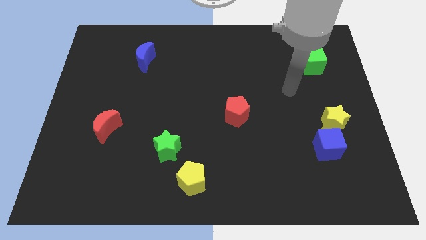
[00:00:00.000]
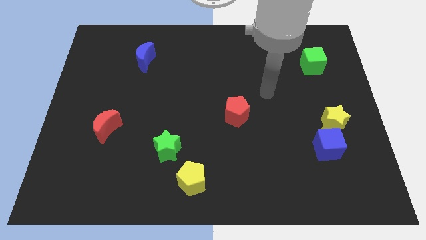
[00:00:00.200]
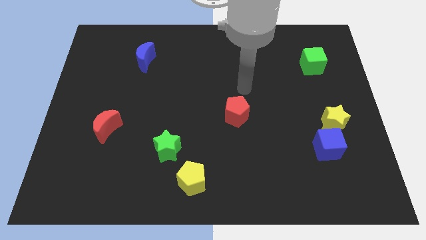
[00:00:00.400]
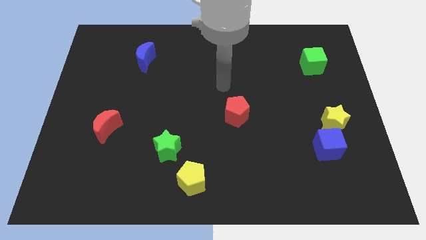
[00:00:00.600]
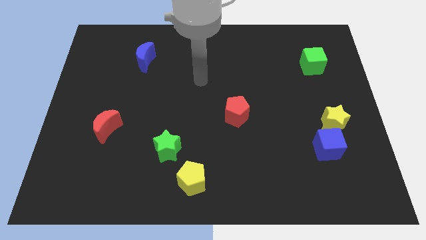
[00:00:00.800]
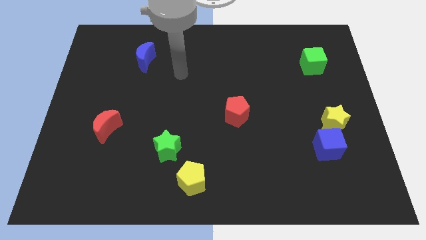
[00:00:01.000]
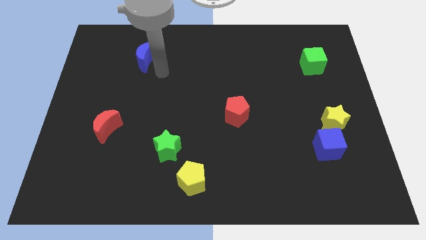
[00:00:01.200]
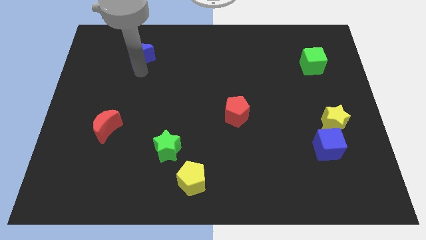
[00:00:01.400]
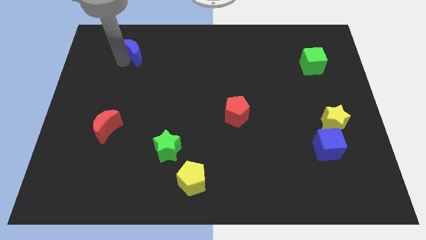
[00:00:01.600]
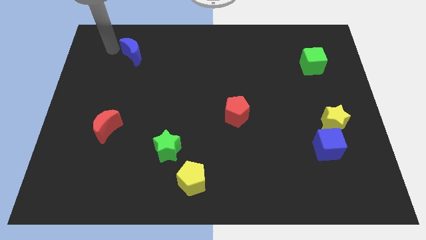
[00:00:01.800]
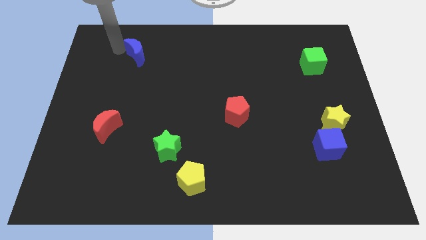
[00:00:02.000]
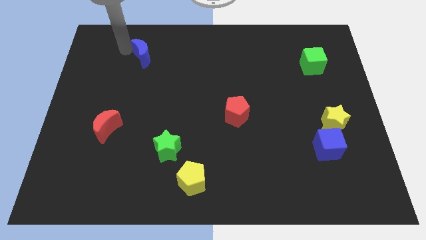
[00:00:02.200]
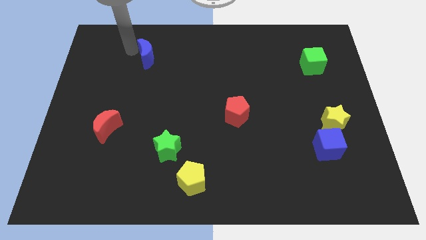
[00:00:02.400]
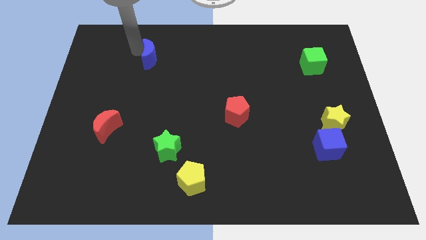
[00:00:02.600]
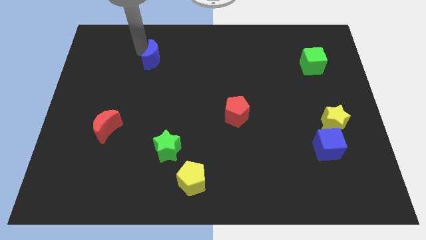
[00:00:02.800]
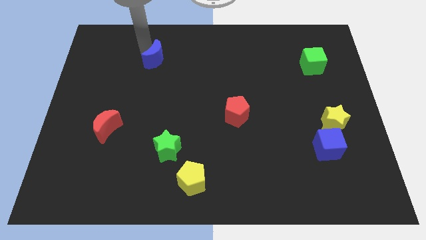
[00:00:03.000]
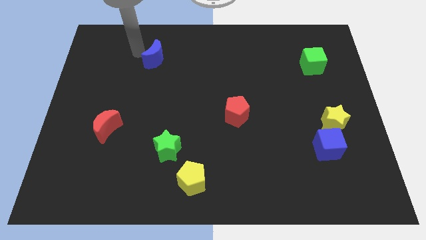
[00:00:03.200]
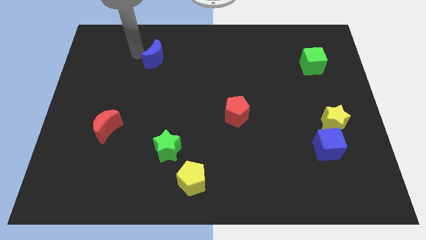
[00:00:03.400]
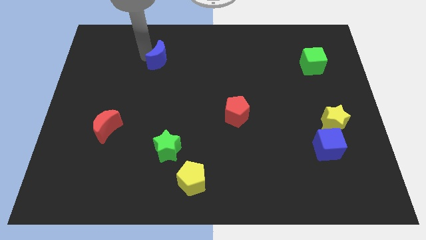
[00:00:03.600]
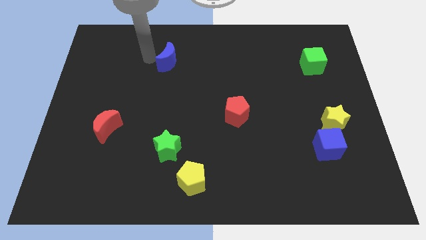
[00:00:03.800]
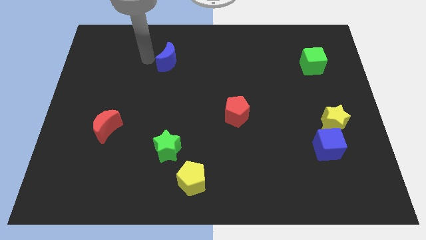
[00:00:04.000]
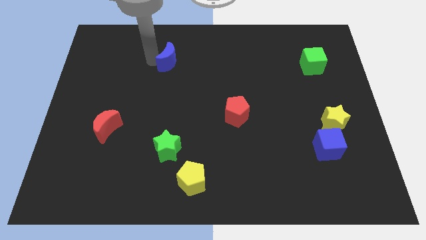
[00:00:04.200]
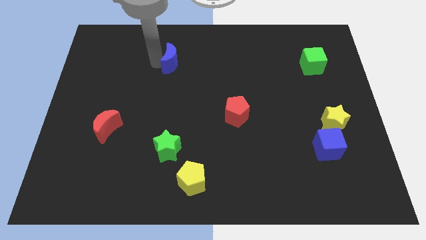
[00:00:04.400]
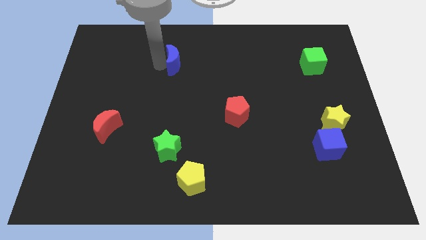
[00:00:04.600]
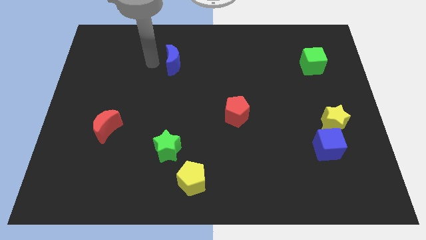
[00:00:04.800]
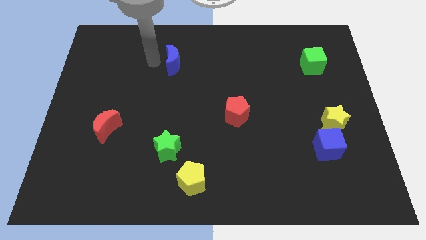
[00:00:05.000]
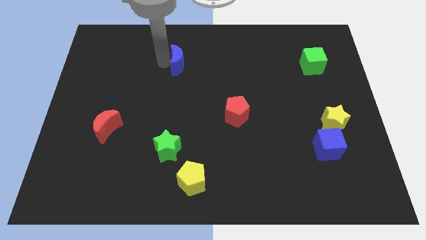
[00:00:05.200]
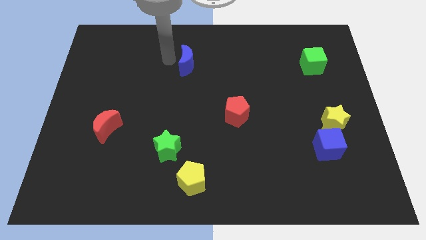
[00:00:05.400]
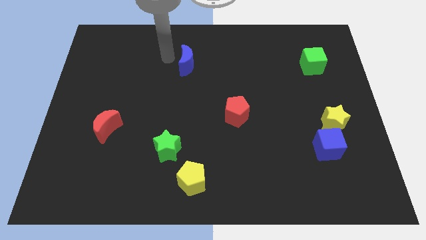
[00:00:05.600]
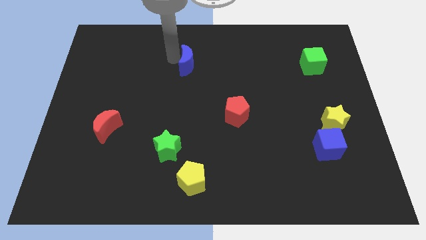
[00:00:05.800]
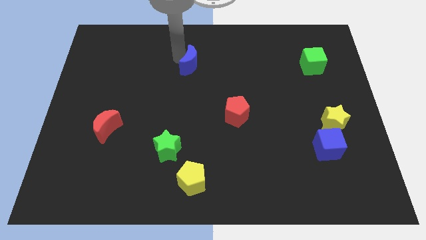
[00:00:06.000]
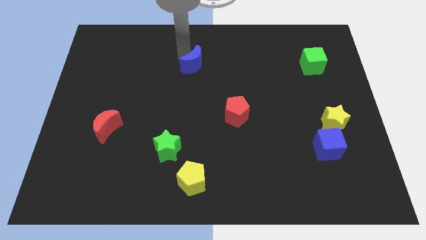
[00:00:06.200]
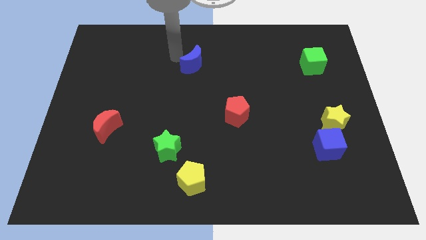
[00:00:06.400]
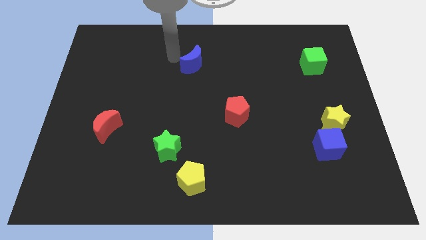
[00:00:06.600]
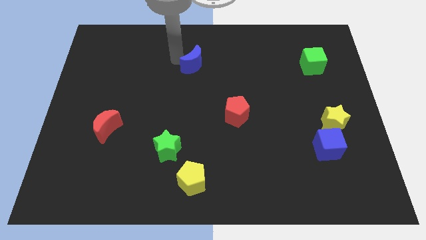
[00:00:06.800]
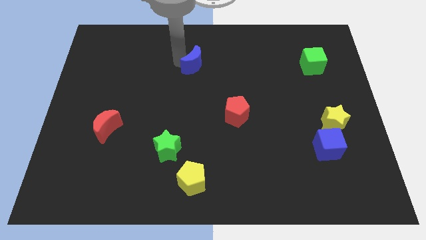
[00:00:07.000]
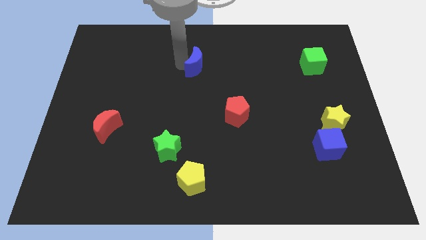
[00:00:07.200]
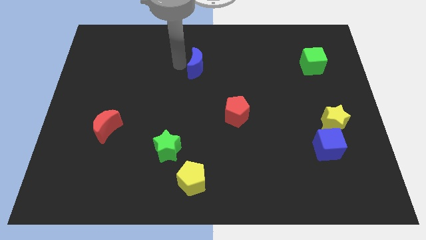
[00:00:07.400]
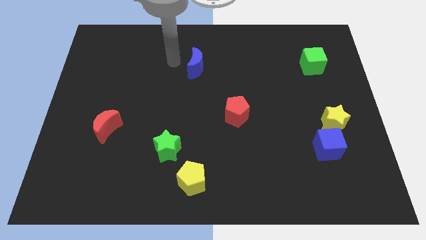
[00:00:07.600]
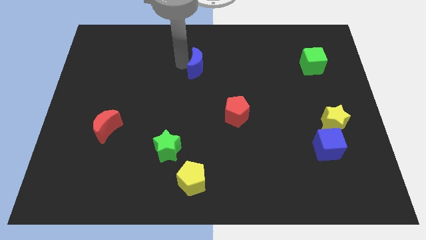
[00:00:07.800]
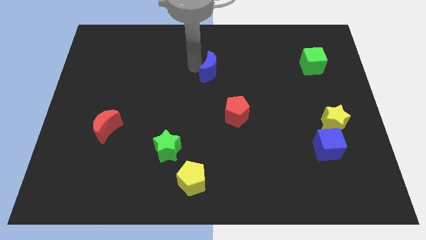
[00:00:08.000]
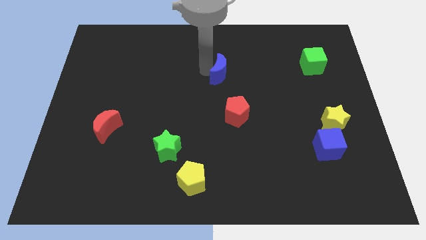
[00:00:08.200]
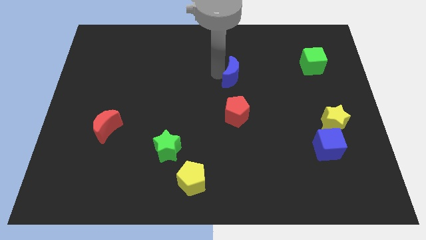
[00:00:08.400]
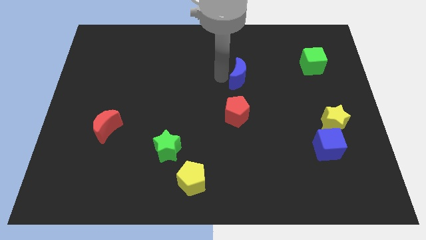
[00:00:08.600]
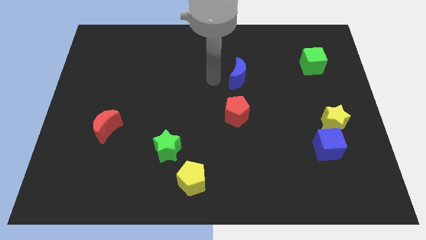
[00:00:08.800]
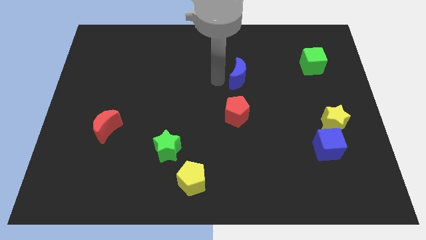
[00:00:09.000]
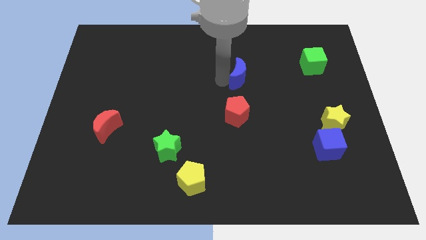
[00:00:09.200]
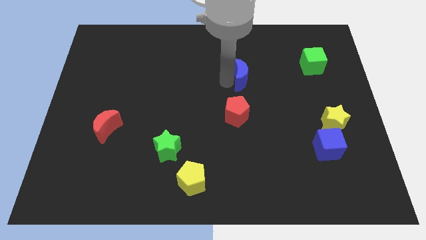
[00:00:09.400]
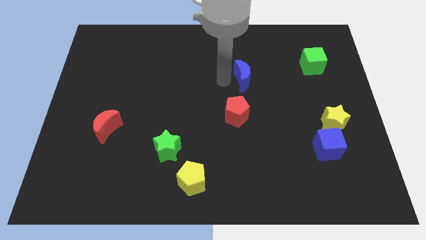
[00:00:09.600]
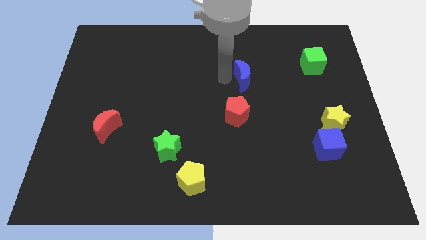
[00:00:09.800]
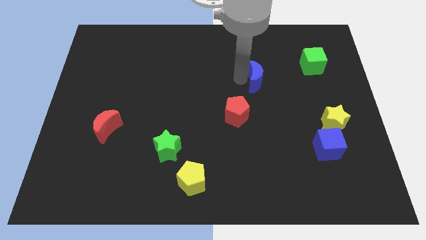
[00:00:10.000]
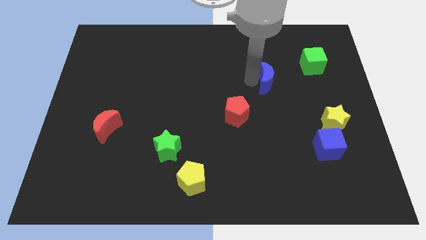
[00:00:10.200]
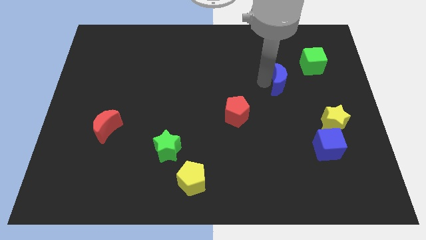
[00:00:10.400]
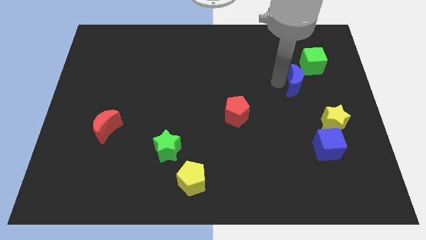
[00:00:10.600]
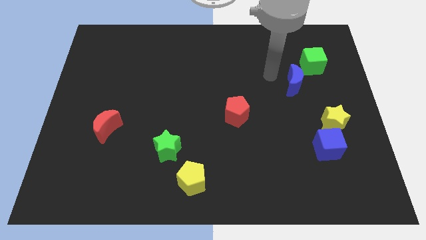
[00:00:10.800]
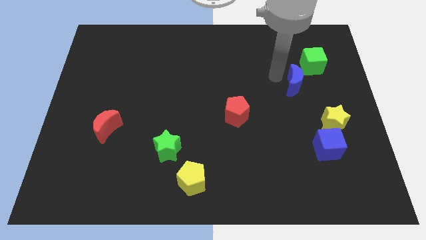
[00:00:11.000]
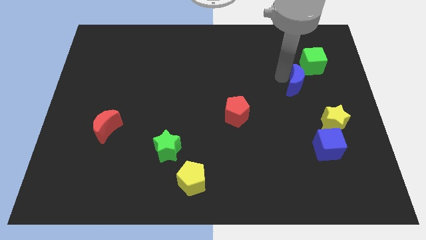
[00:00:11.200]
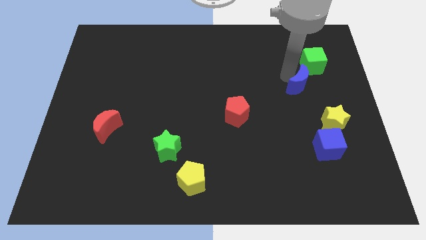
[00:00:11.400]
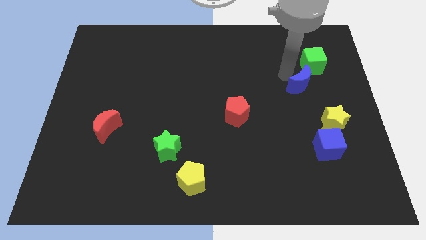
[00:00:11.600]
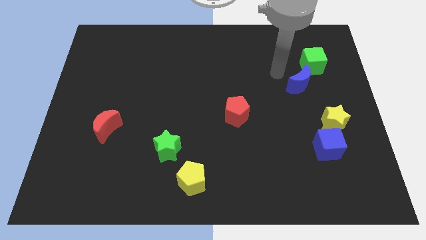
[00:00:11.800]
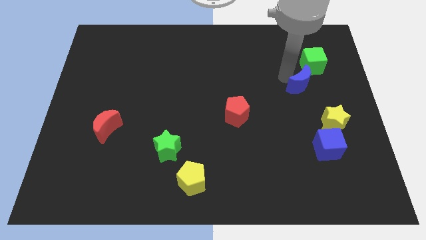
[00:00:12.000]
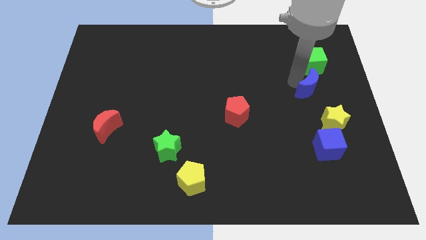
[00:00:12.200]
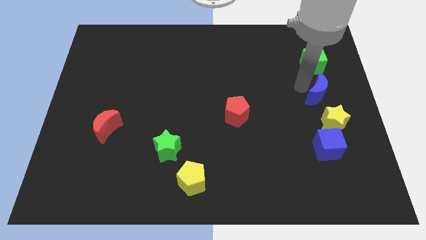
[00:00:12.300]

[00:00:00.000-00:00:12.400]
move the blue moon to the center right
